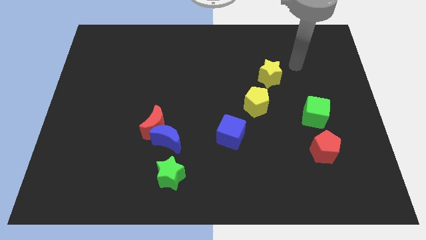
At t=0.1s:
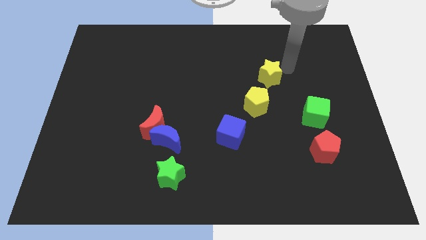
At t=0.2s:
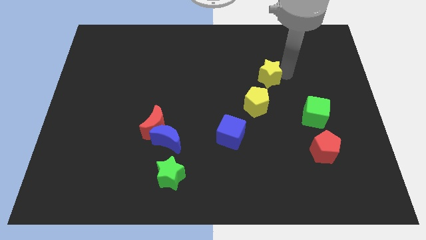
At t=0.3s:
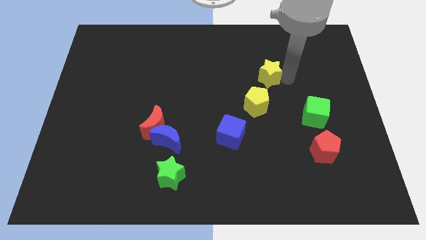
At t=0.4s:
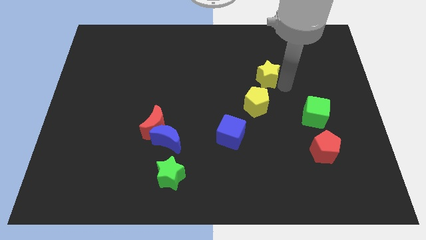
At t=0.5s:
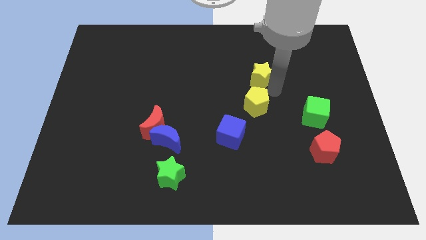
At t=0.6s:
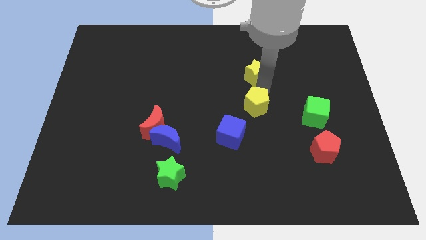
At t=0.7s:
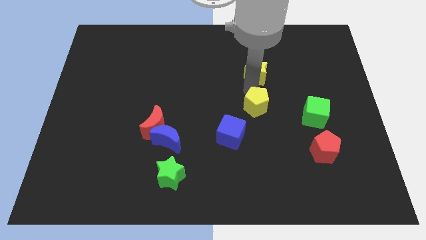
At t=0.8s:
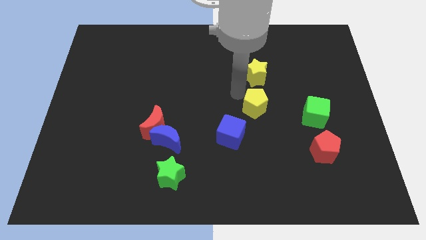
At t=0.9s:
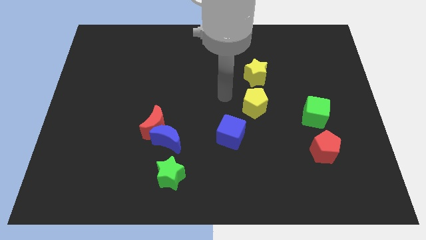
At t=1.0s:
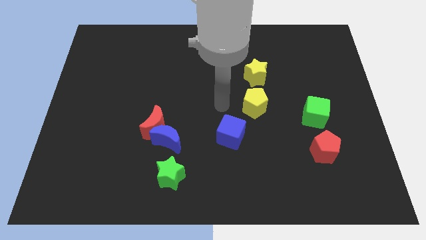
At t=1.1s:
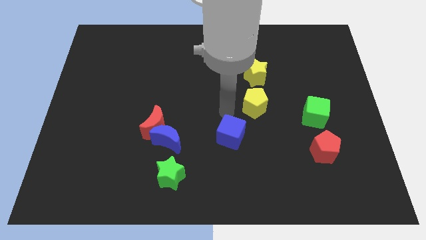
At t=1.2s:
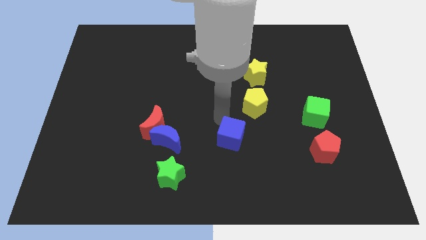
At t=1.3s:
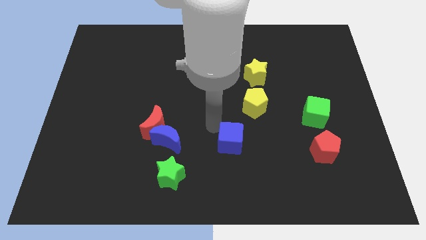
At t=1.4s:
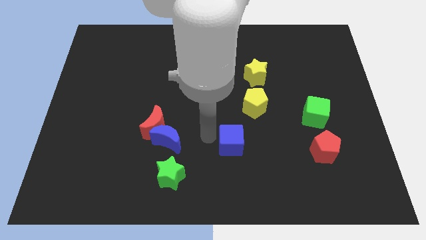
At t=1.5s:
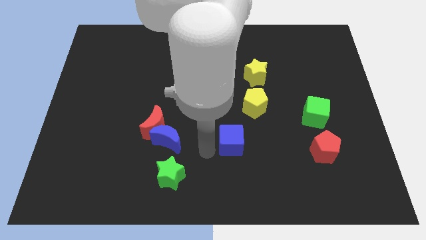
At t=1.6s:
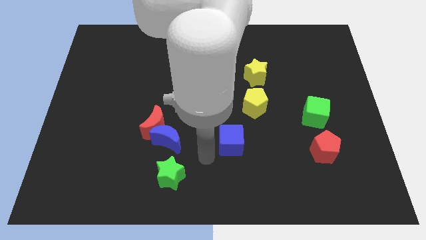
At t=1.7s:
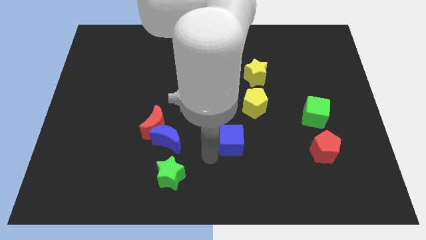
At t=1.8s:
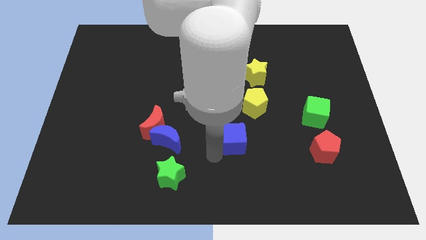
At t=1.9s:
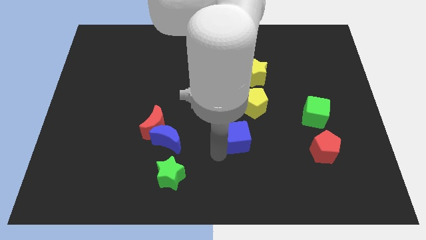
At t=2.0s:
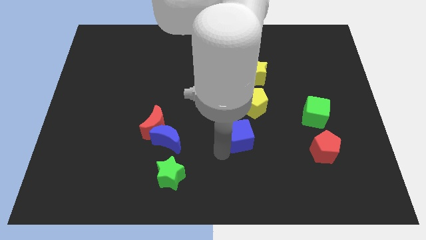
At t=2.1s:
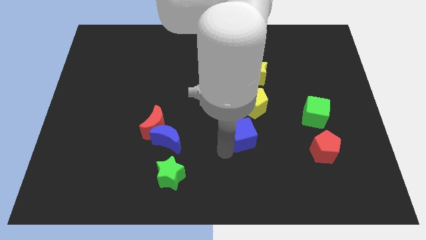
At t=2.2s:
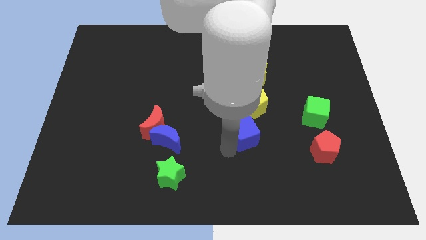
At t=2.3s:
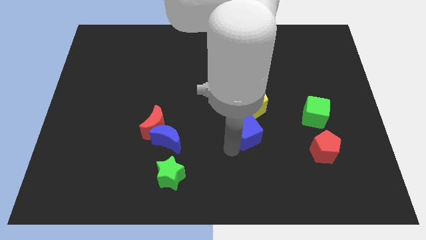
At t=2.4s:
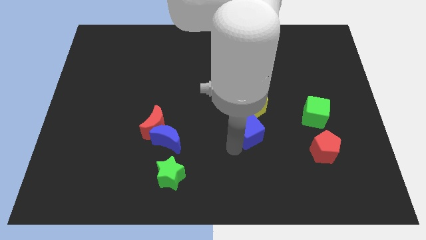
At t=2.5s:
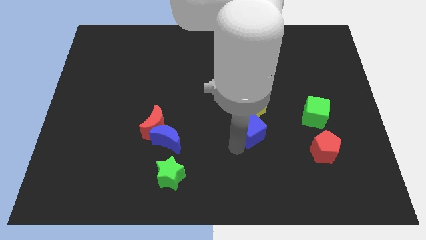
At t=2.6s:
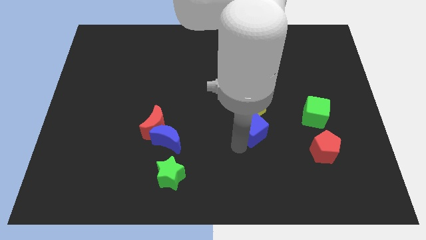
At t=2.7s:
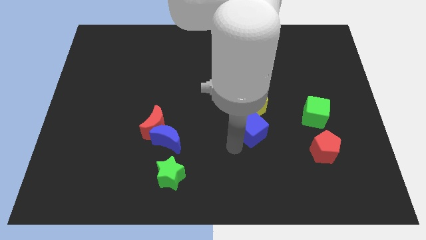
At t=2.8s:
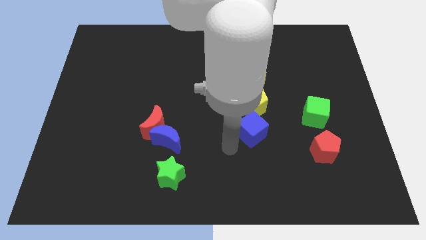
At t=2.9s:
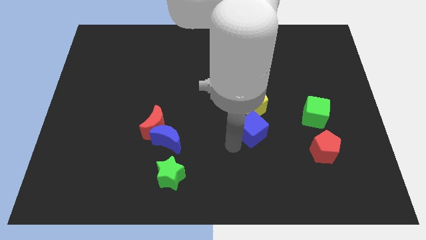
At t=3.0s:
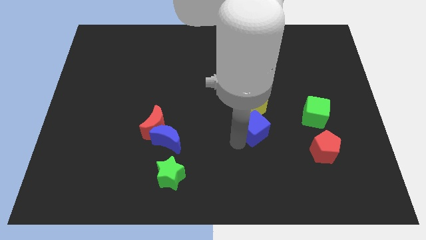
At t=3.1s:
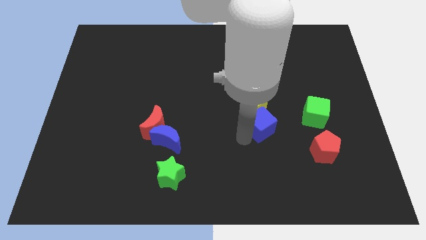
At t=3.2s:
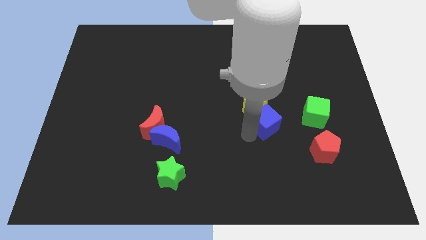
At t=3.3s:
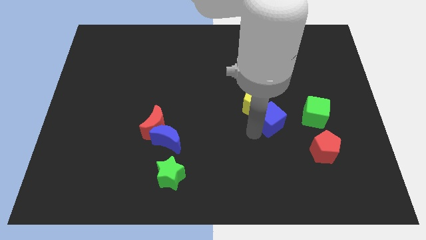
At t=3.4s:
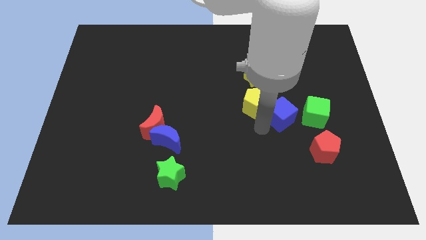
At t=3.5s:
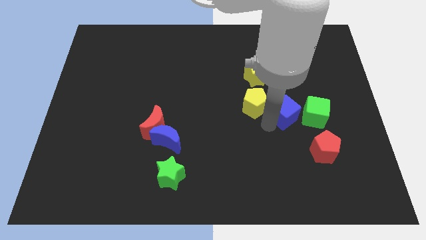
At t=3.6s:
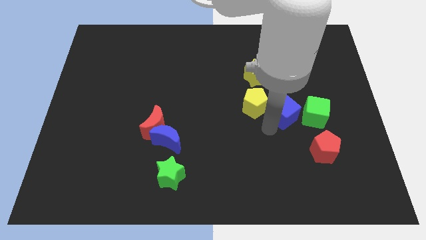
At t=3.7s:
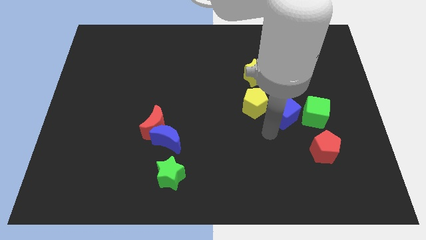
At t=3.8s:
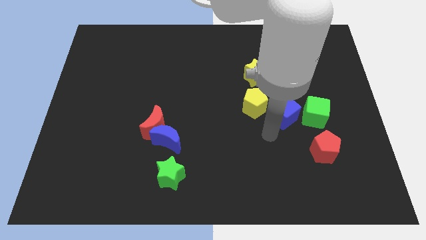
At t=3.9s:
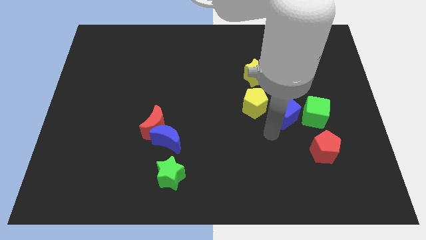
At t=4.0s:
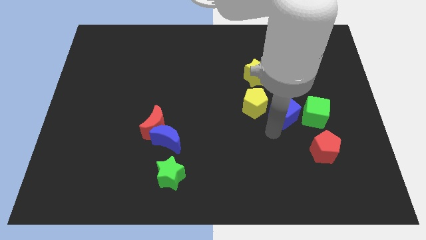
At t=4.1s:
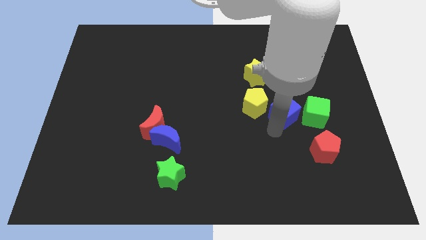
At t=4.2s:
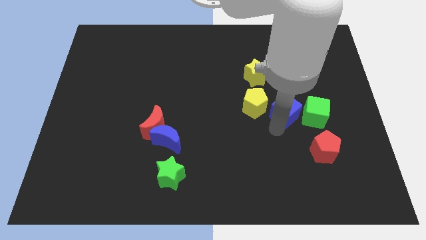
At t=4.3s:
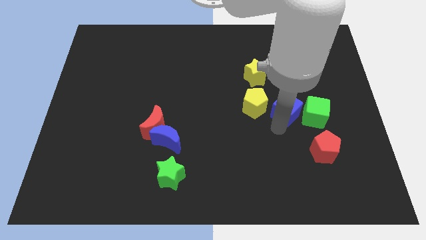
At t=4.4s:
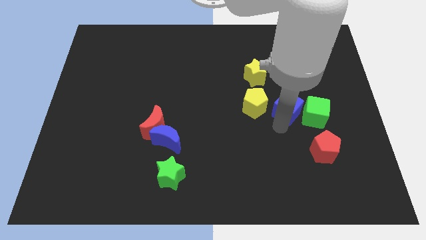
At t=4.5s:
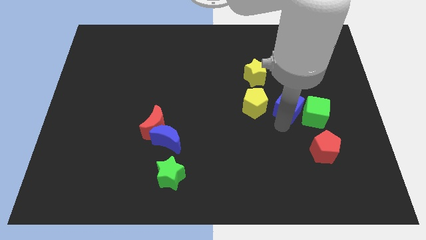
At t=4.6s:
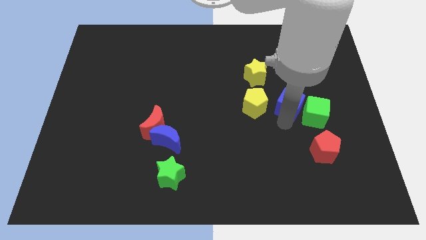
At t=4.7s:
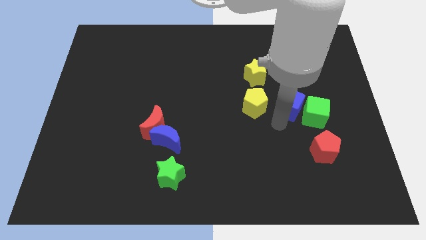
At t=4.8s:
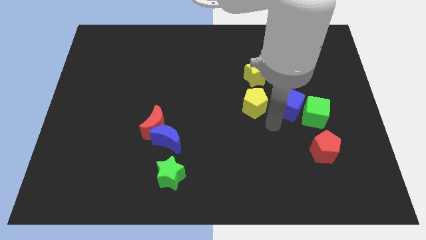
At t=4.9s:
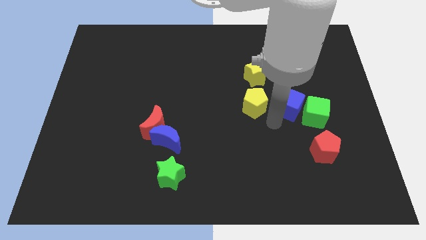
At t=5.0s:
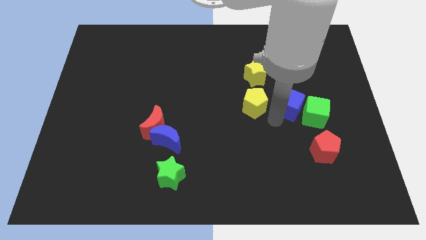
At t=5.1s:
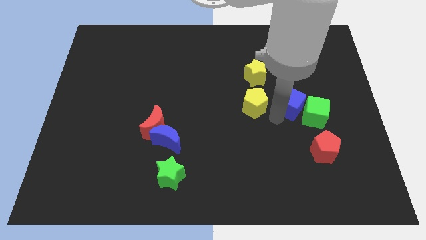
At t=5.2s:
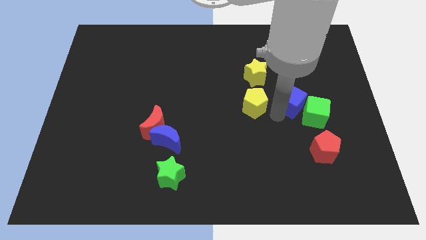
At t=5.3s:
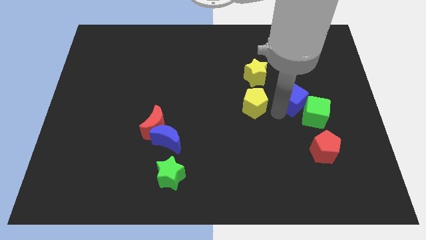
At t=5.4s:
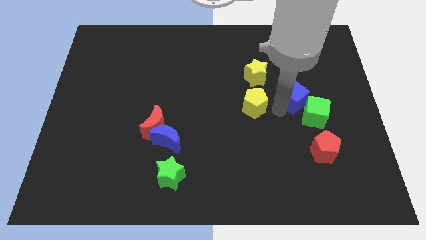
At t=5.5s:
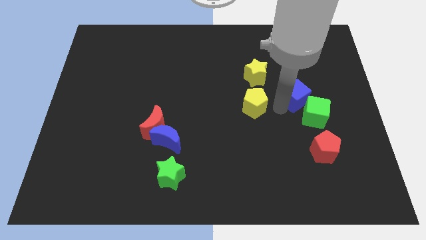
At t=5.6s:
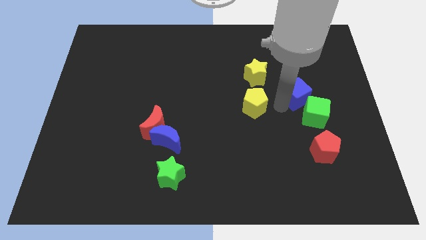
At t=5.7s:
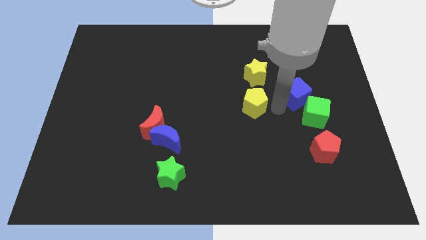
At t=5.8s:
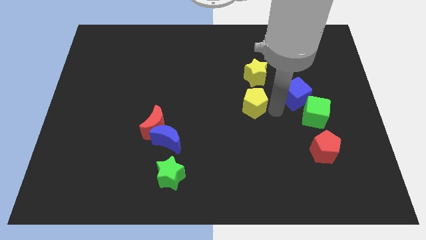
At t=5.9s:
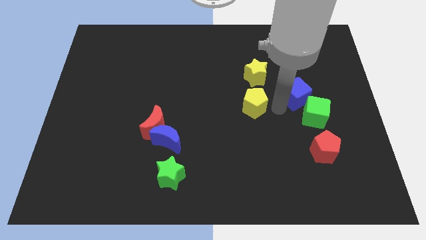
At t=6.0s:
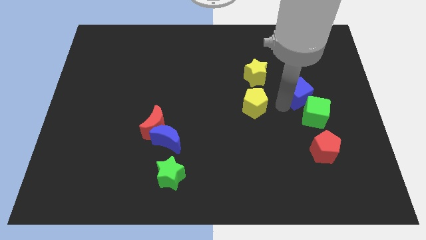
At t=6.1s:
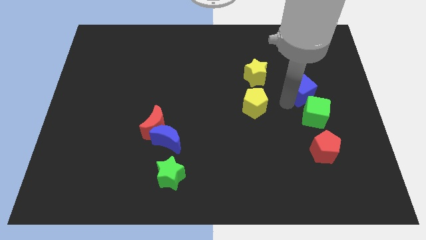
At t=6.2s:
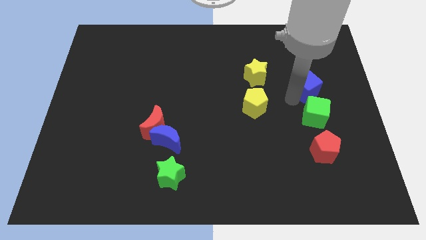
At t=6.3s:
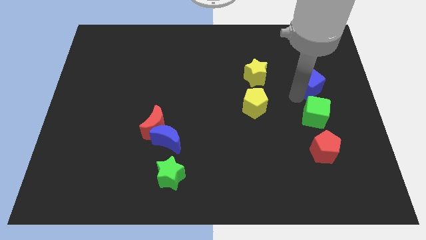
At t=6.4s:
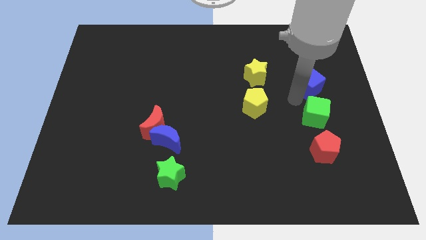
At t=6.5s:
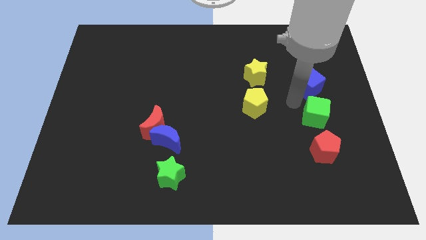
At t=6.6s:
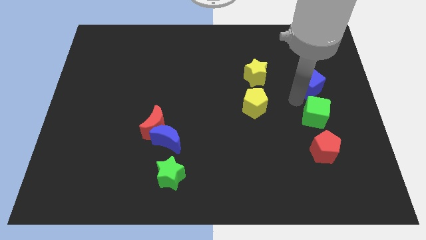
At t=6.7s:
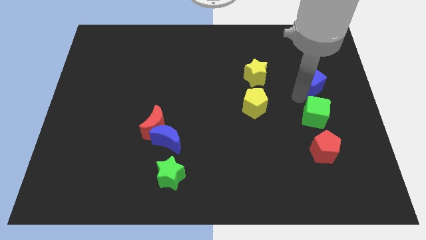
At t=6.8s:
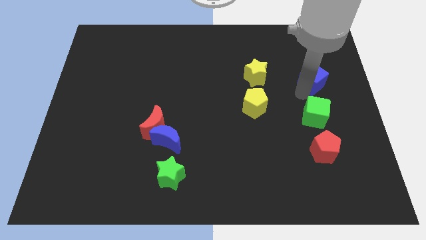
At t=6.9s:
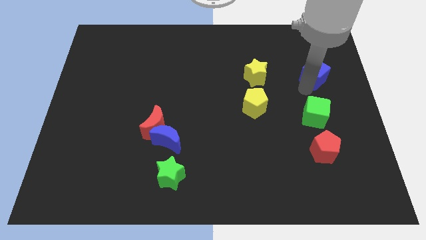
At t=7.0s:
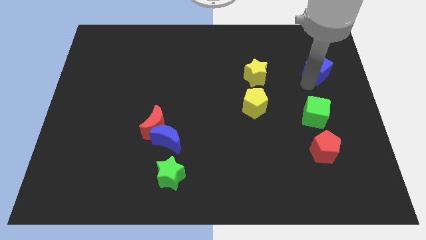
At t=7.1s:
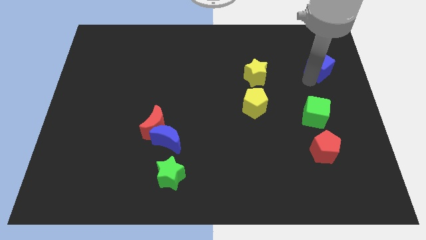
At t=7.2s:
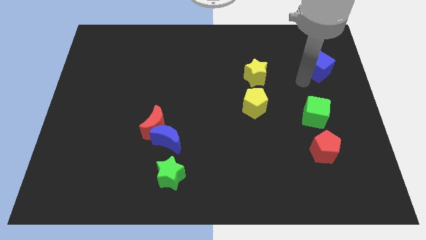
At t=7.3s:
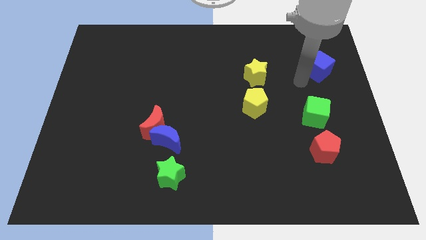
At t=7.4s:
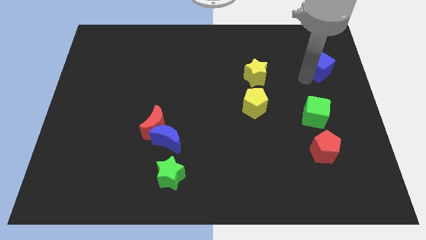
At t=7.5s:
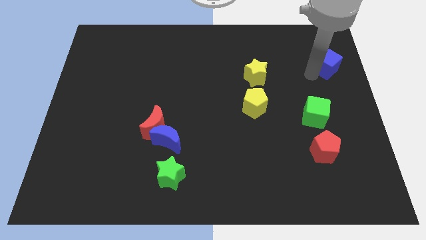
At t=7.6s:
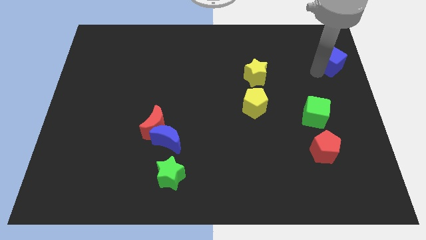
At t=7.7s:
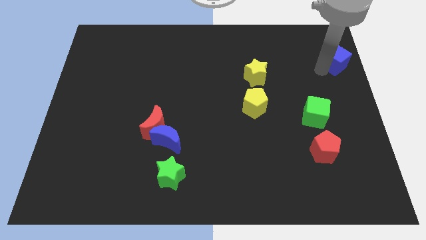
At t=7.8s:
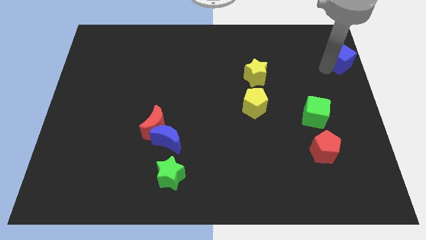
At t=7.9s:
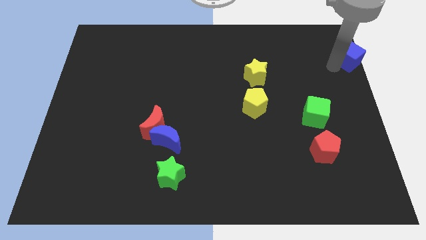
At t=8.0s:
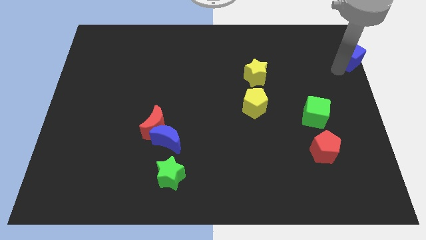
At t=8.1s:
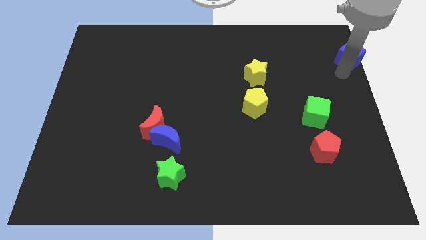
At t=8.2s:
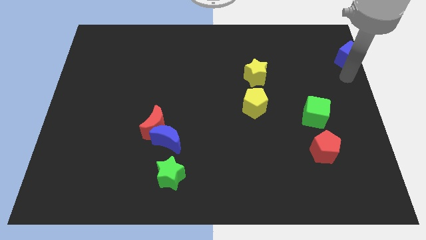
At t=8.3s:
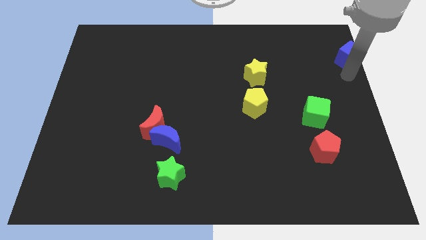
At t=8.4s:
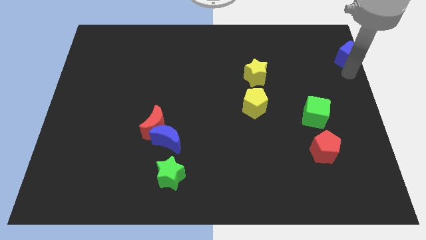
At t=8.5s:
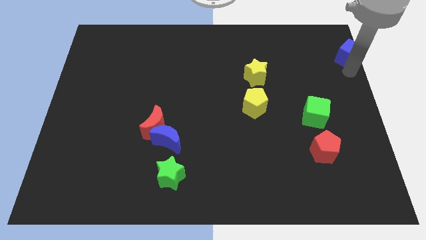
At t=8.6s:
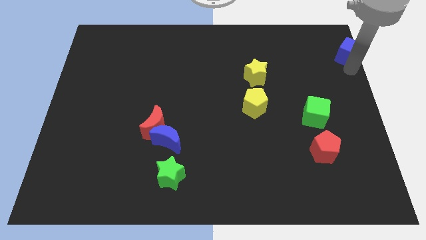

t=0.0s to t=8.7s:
push the blue cube to the top right of the board
